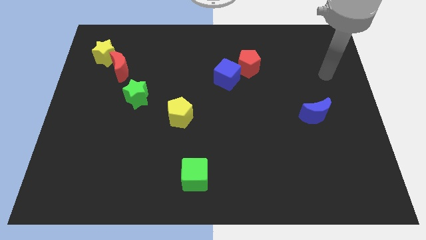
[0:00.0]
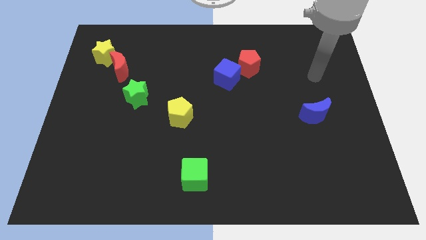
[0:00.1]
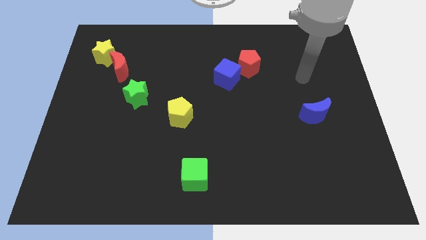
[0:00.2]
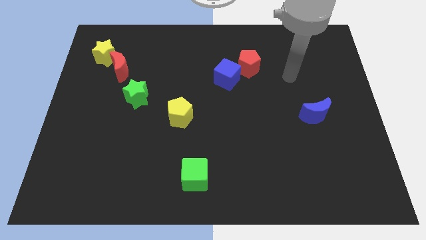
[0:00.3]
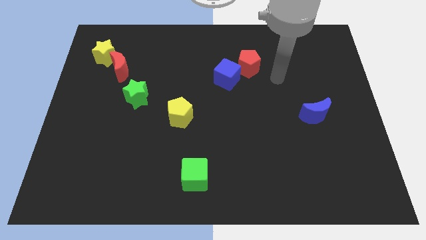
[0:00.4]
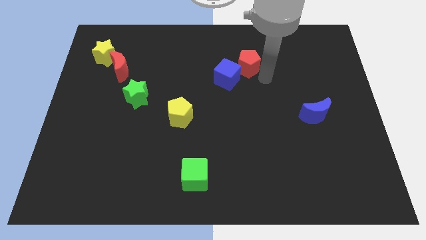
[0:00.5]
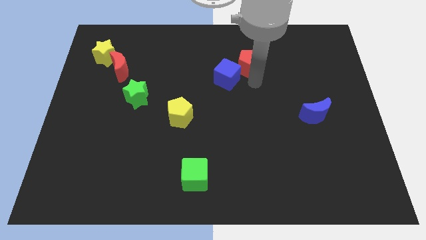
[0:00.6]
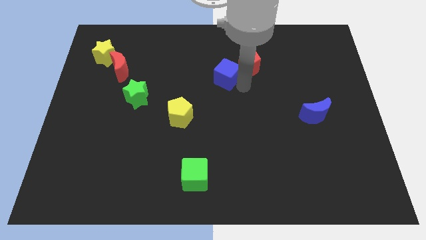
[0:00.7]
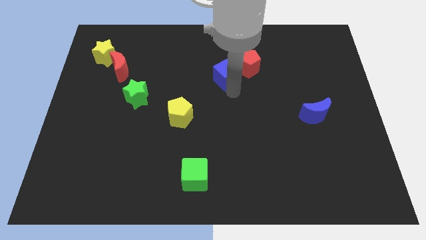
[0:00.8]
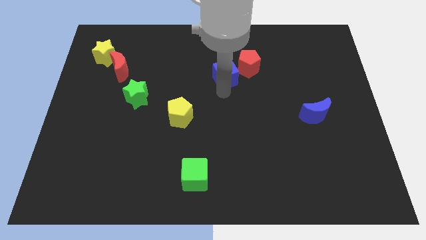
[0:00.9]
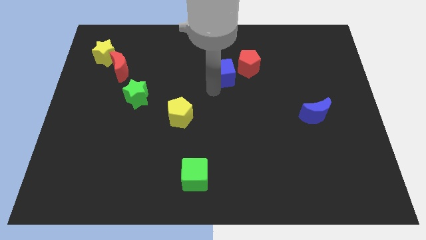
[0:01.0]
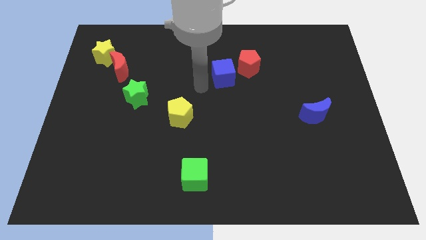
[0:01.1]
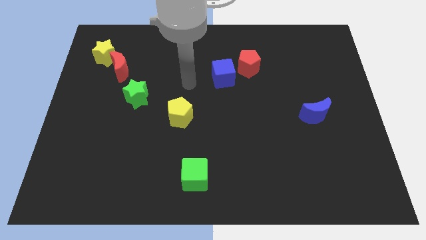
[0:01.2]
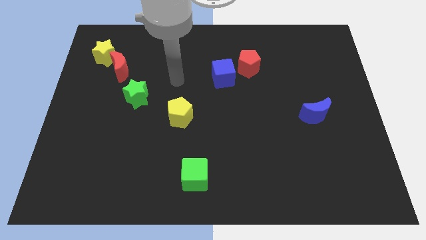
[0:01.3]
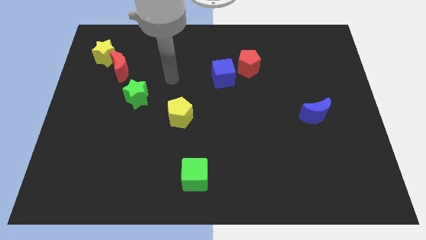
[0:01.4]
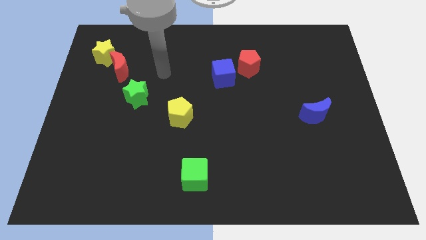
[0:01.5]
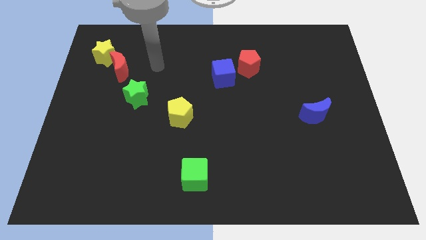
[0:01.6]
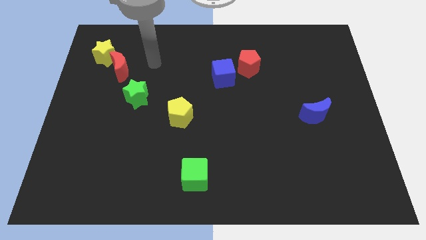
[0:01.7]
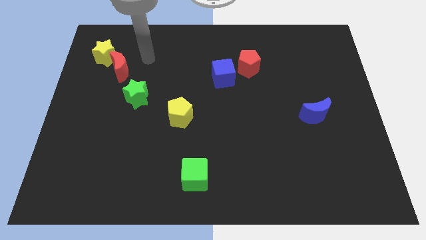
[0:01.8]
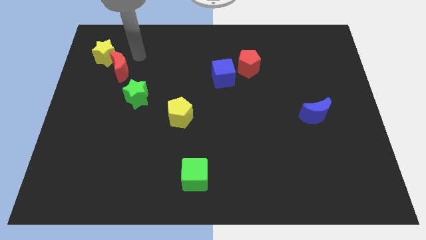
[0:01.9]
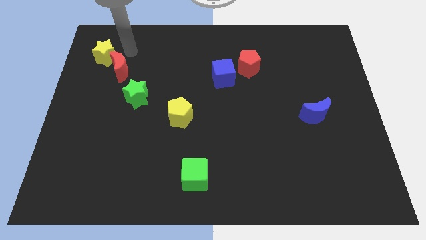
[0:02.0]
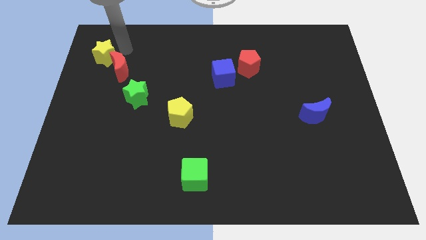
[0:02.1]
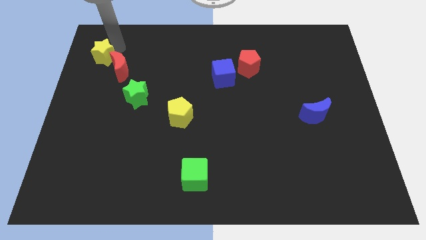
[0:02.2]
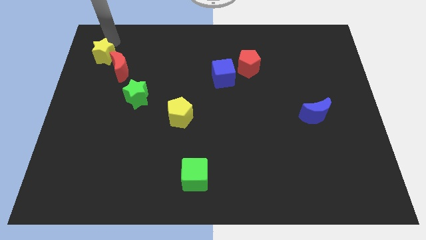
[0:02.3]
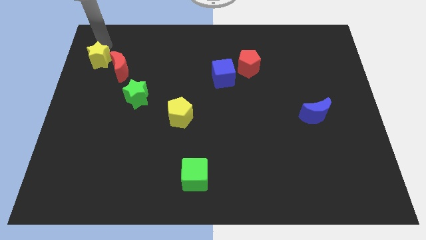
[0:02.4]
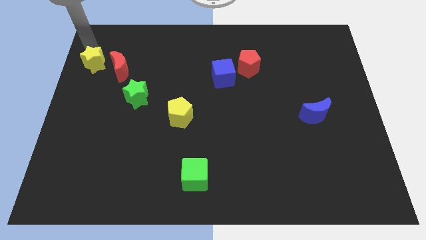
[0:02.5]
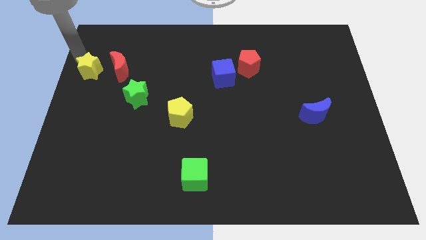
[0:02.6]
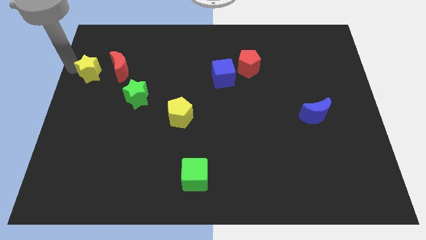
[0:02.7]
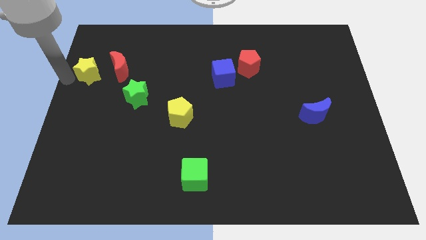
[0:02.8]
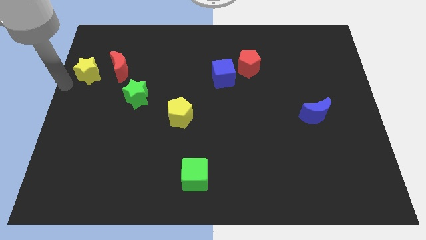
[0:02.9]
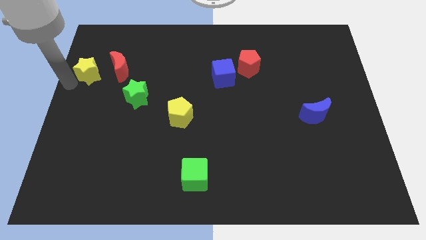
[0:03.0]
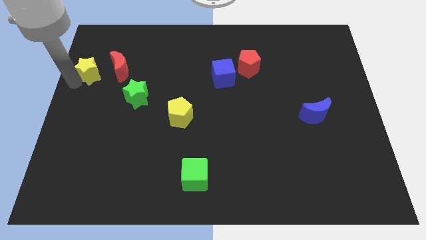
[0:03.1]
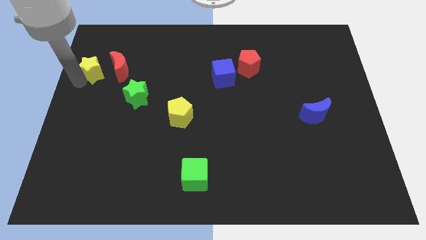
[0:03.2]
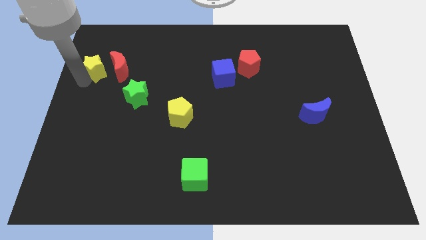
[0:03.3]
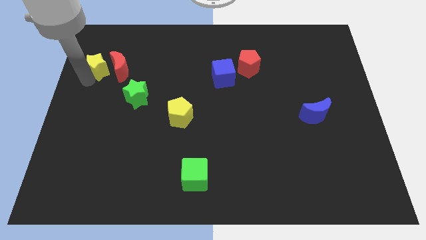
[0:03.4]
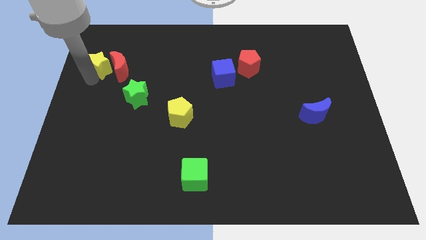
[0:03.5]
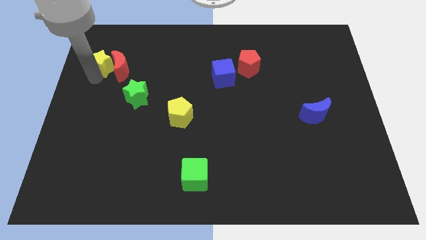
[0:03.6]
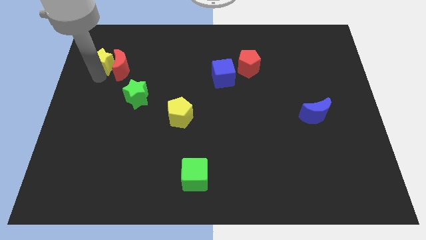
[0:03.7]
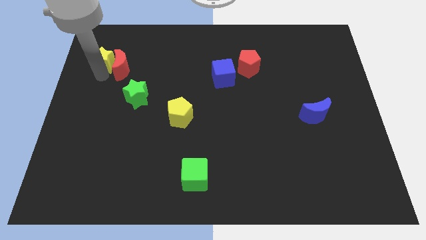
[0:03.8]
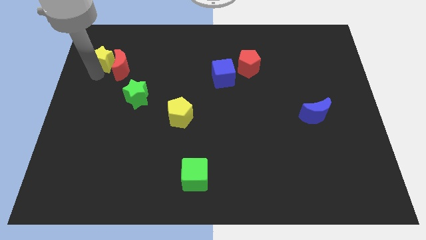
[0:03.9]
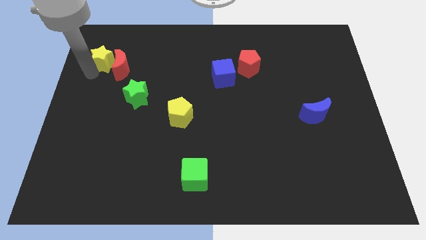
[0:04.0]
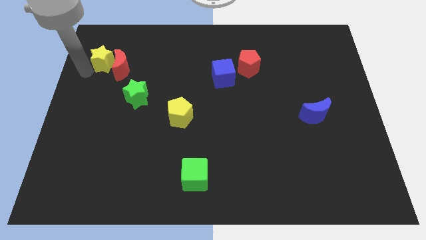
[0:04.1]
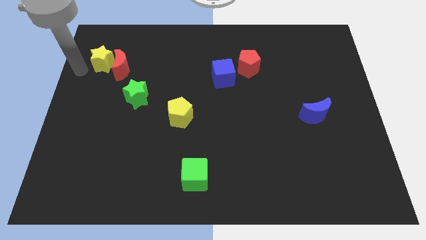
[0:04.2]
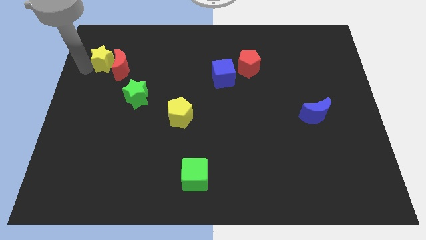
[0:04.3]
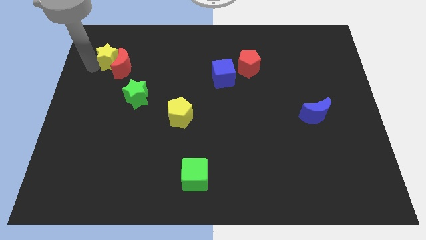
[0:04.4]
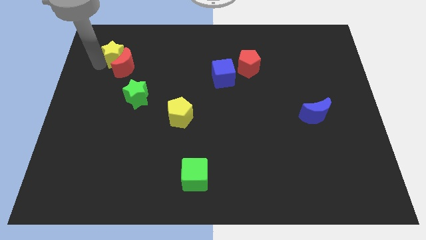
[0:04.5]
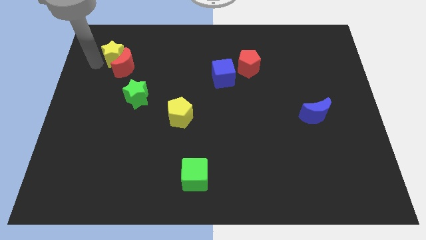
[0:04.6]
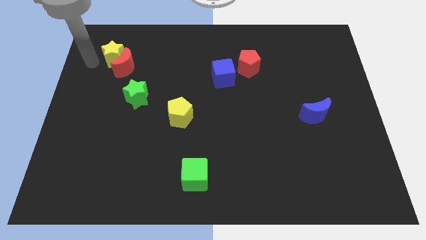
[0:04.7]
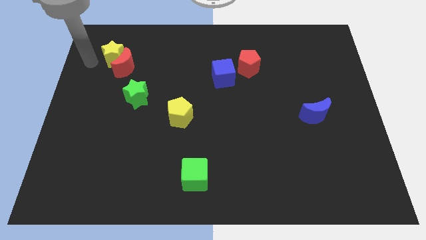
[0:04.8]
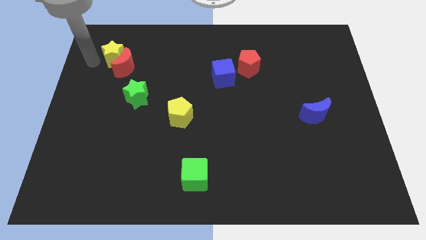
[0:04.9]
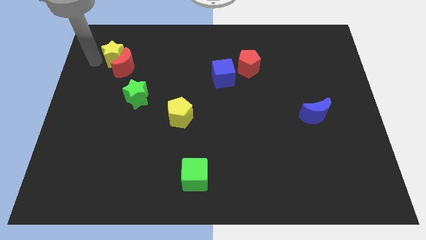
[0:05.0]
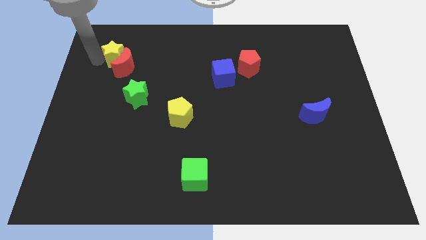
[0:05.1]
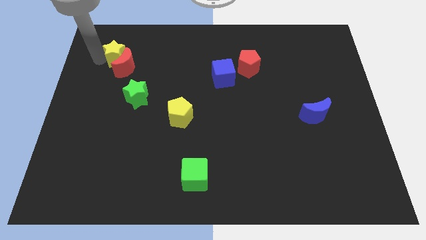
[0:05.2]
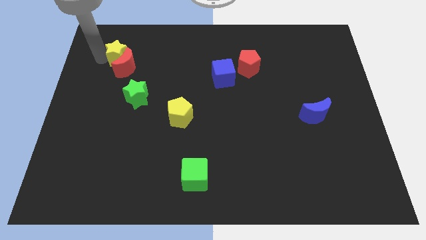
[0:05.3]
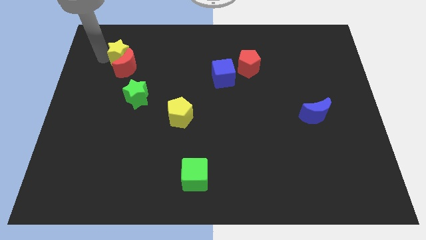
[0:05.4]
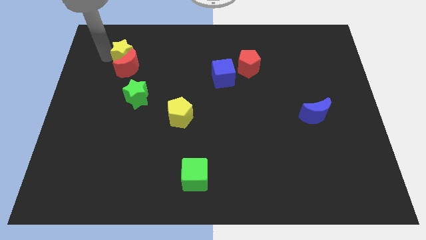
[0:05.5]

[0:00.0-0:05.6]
put the yellow star to the top right of the red moon

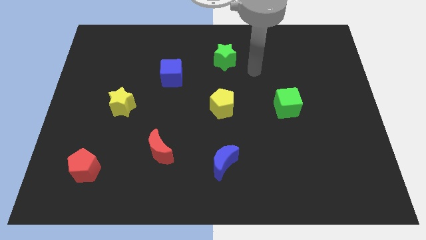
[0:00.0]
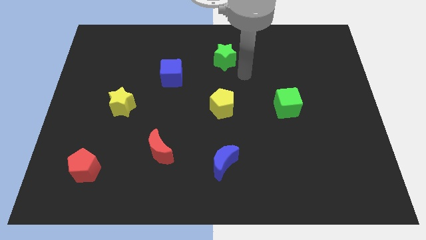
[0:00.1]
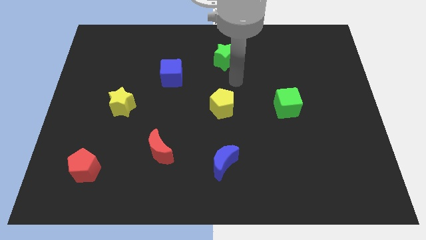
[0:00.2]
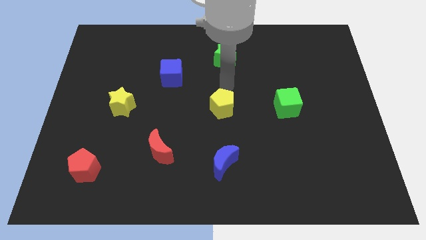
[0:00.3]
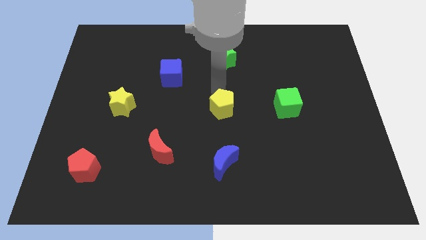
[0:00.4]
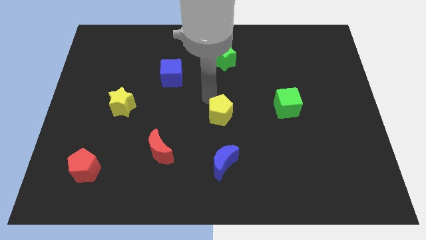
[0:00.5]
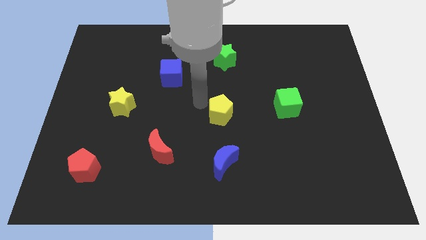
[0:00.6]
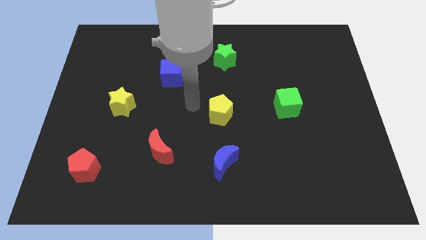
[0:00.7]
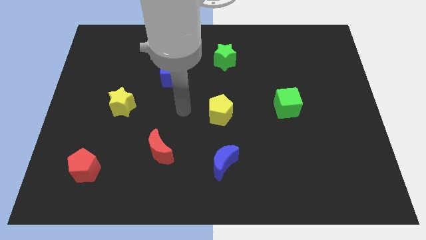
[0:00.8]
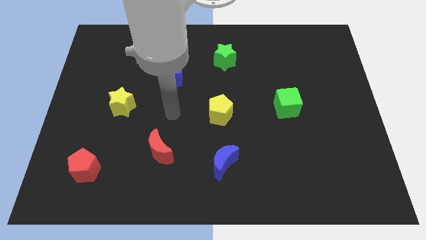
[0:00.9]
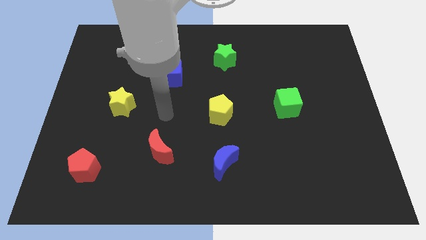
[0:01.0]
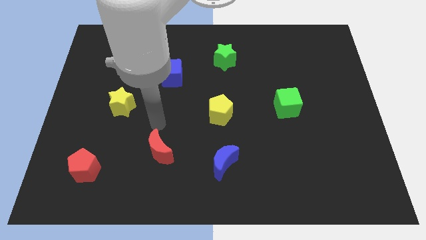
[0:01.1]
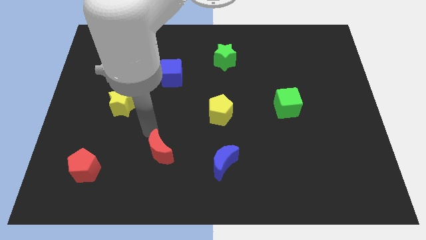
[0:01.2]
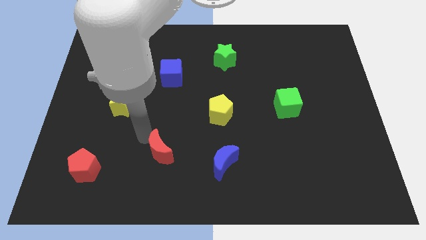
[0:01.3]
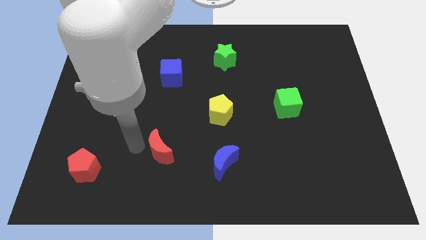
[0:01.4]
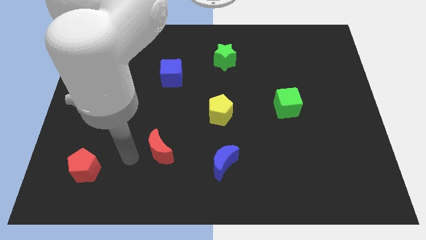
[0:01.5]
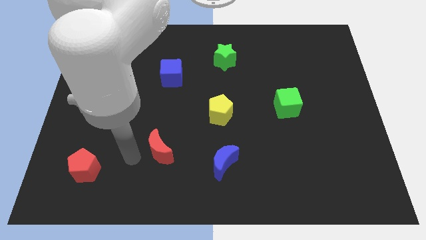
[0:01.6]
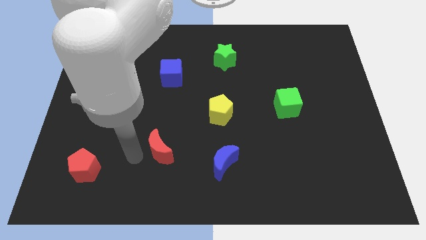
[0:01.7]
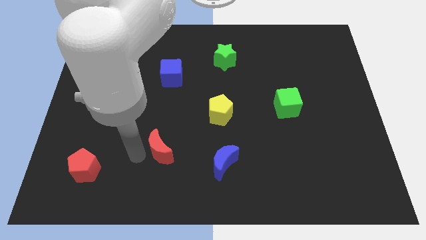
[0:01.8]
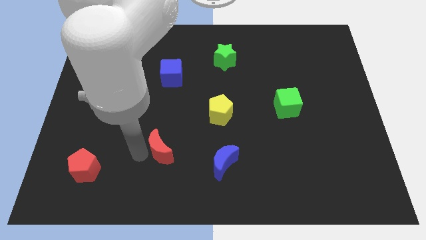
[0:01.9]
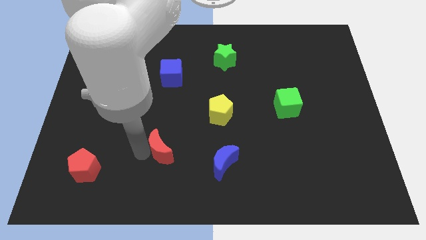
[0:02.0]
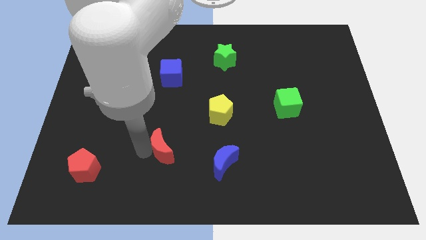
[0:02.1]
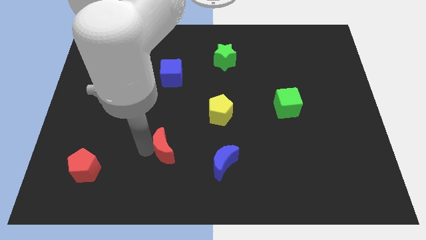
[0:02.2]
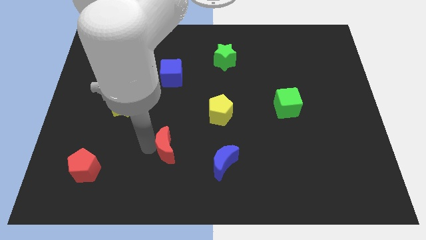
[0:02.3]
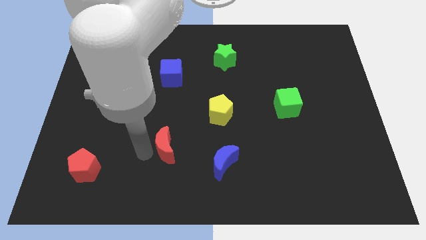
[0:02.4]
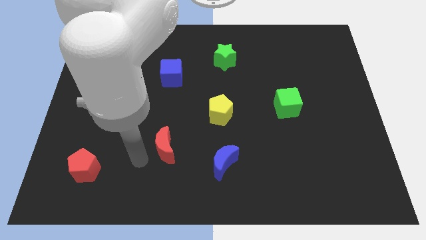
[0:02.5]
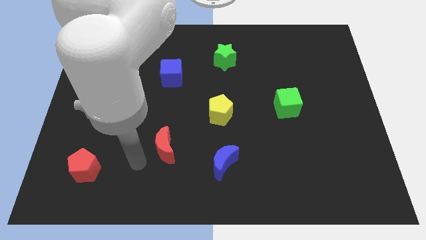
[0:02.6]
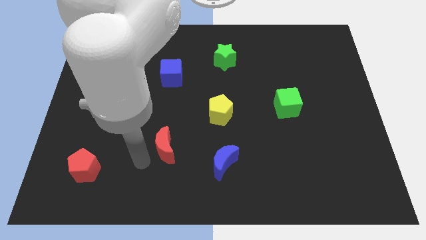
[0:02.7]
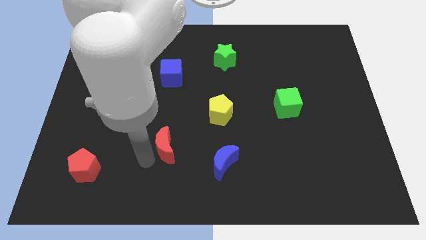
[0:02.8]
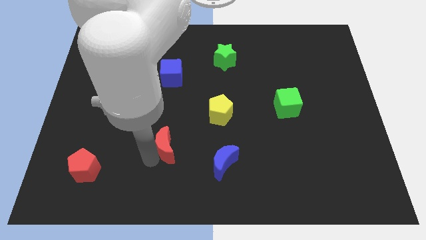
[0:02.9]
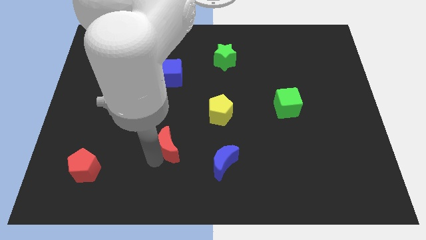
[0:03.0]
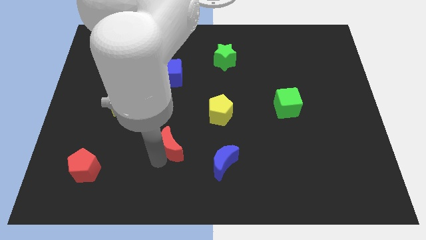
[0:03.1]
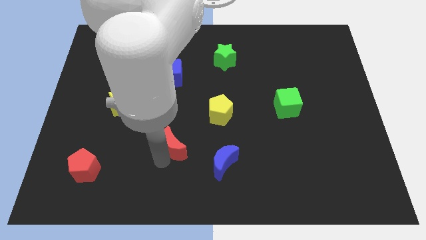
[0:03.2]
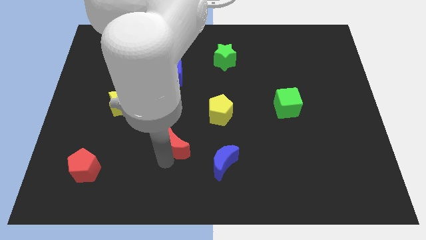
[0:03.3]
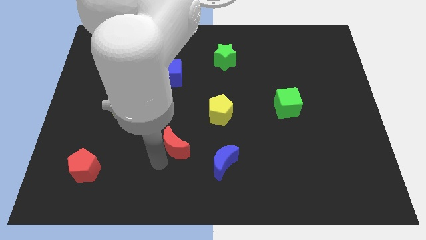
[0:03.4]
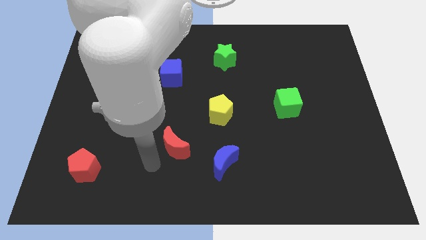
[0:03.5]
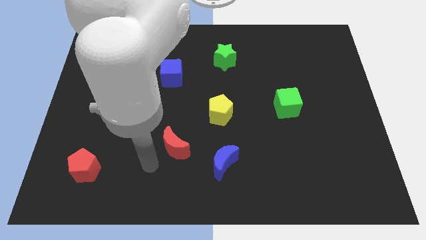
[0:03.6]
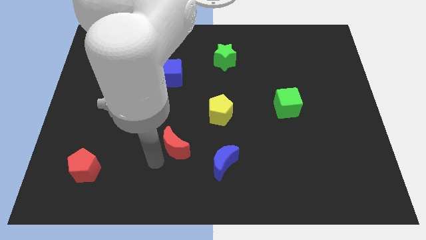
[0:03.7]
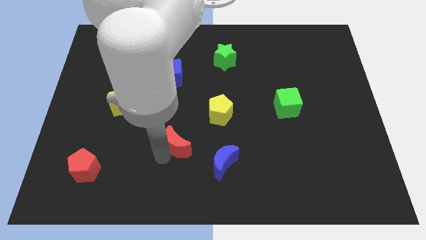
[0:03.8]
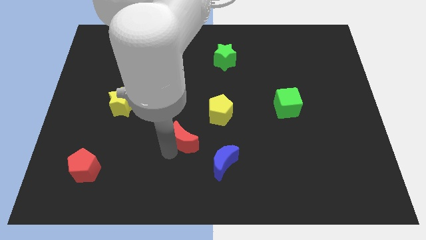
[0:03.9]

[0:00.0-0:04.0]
move the red moon diagonally down and to the left of the yellow pentagon
